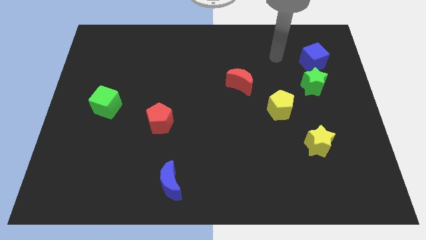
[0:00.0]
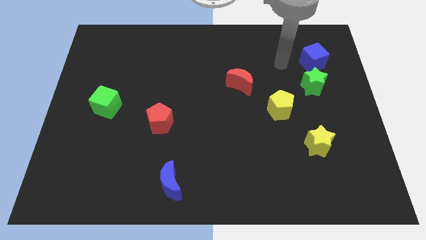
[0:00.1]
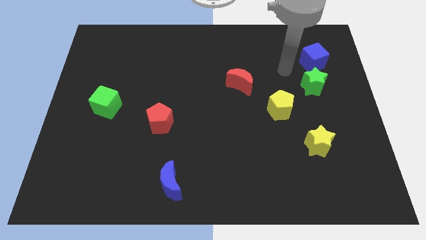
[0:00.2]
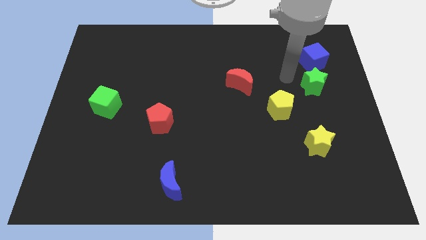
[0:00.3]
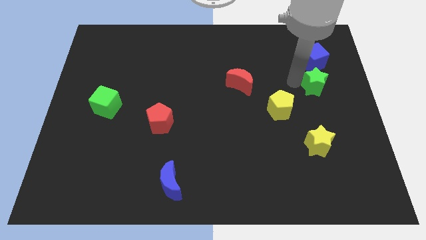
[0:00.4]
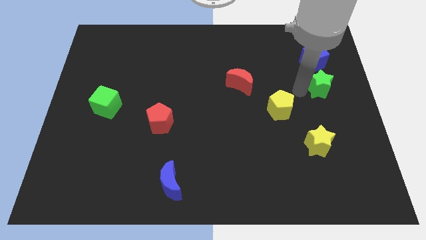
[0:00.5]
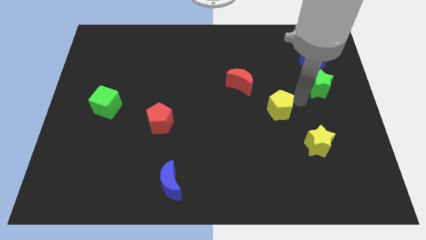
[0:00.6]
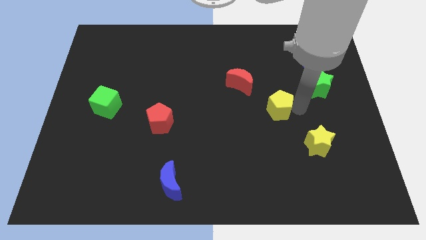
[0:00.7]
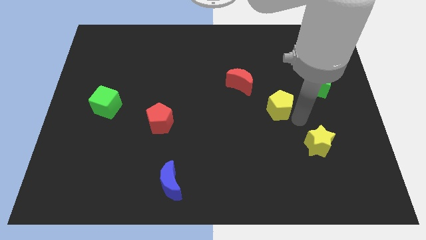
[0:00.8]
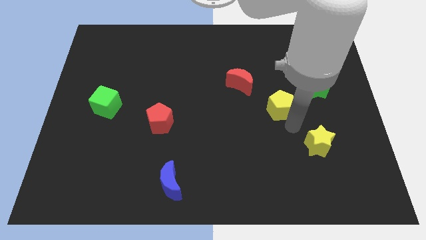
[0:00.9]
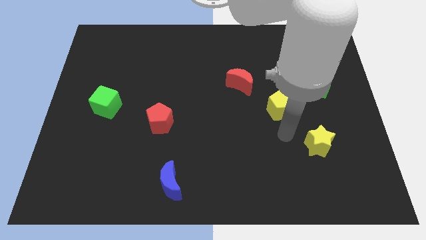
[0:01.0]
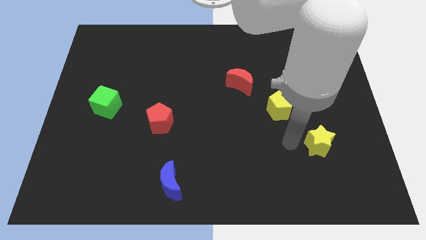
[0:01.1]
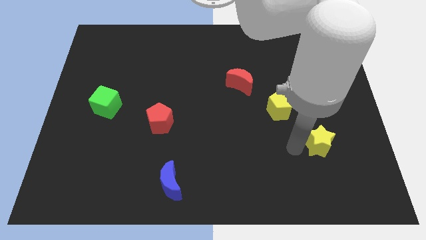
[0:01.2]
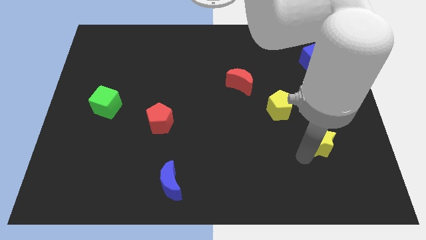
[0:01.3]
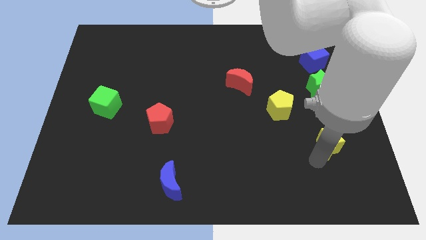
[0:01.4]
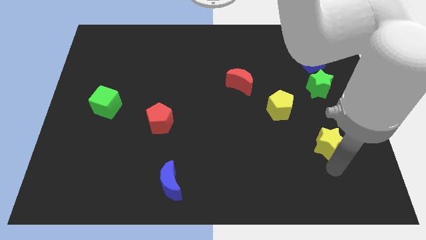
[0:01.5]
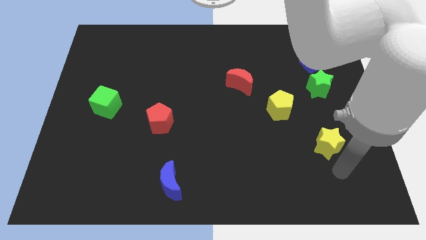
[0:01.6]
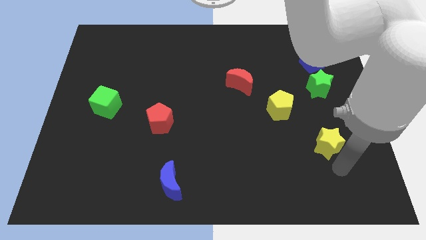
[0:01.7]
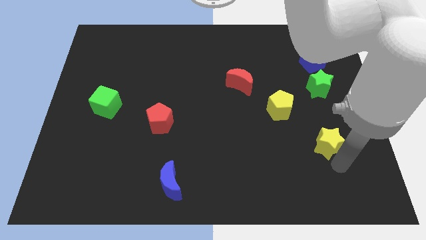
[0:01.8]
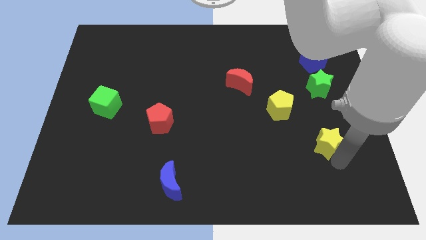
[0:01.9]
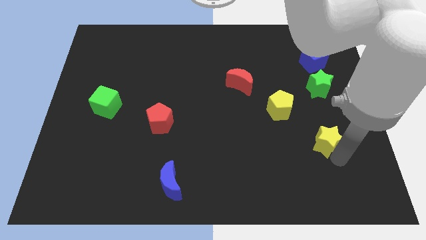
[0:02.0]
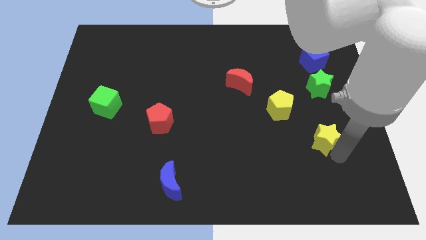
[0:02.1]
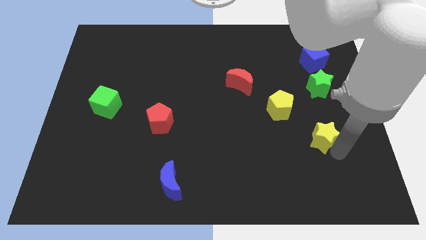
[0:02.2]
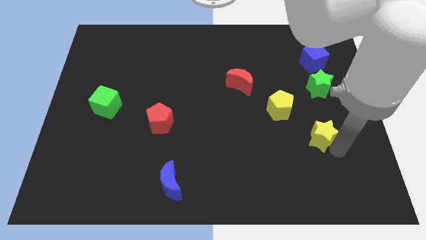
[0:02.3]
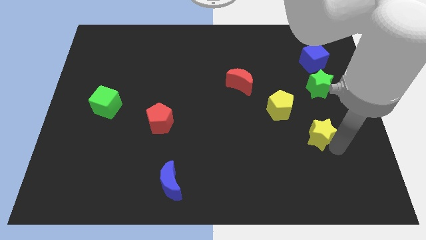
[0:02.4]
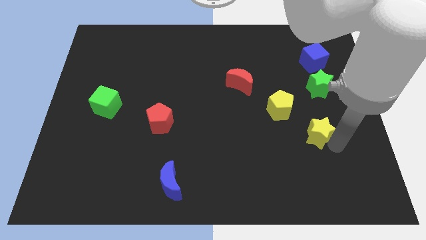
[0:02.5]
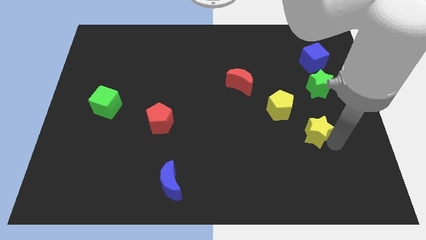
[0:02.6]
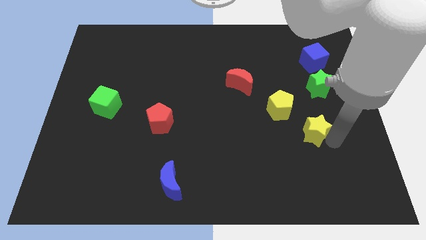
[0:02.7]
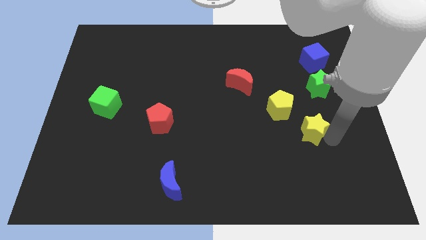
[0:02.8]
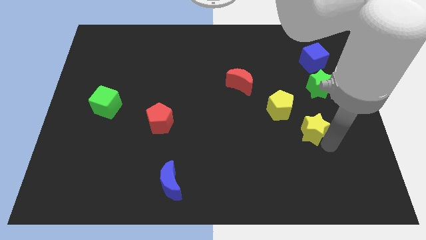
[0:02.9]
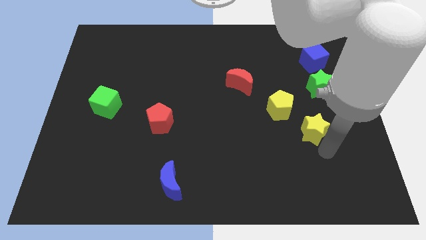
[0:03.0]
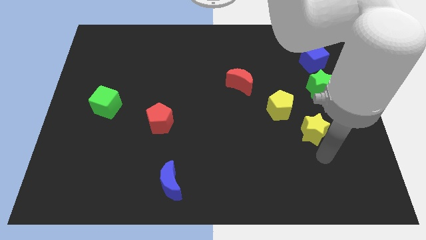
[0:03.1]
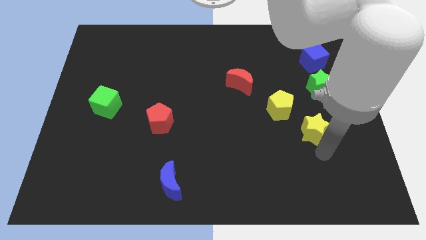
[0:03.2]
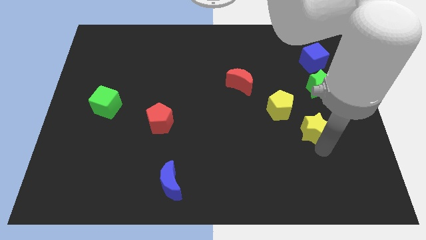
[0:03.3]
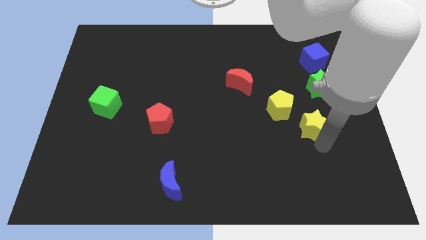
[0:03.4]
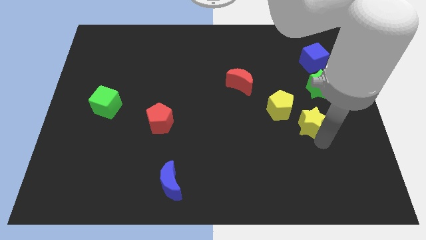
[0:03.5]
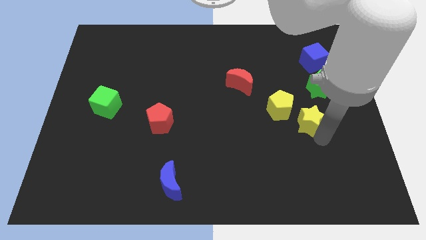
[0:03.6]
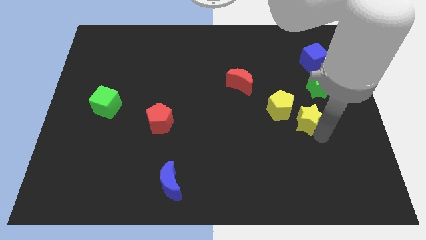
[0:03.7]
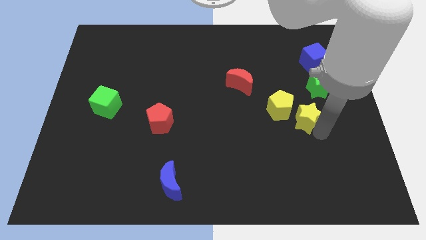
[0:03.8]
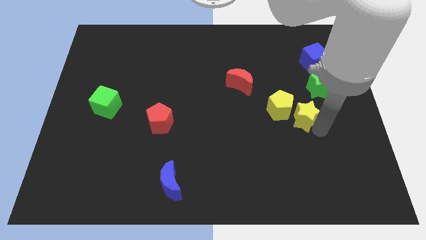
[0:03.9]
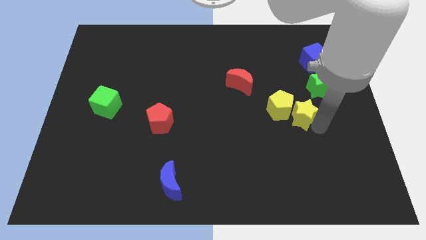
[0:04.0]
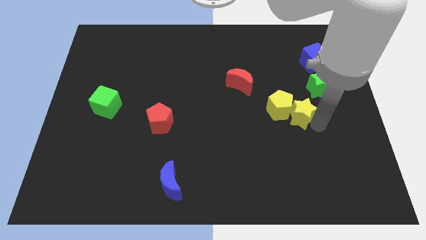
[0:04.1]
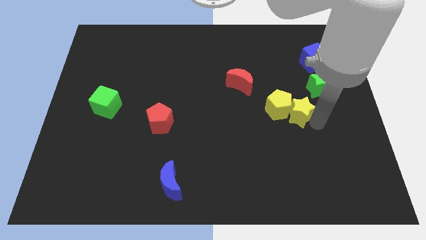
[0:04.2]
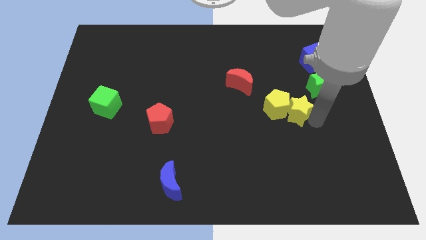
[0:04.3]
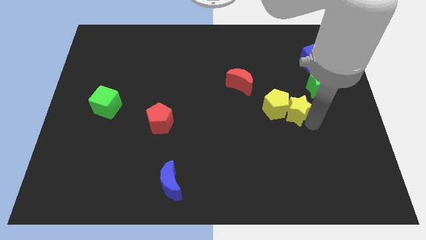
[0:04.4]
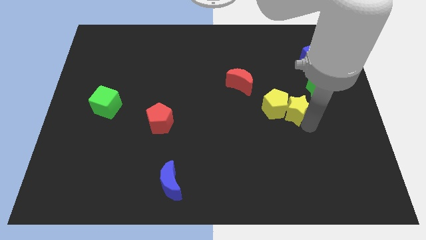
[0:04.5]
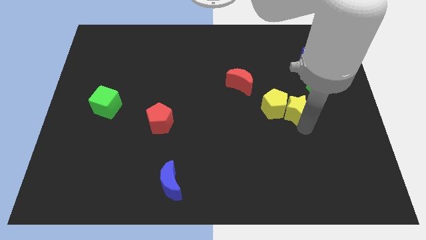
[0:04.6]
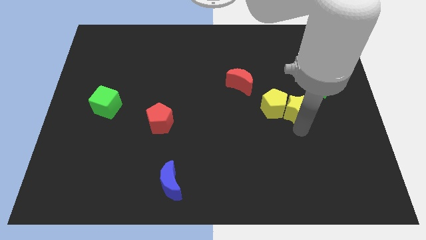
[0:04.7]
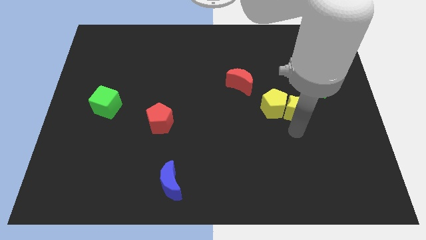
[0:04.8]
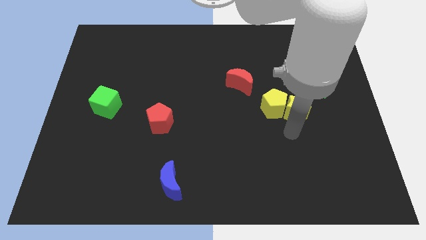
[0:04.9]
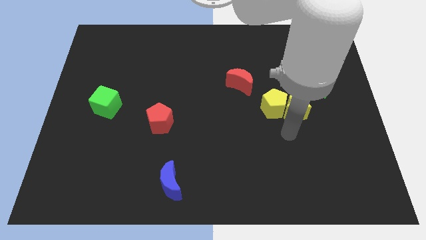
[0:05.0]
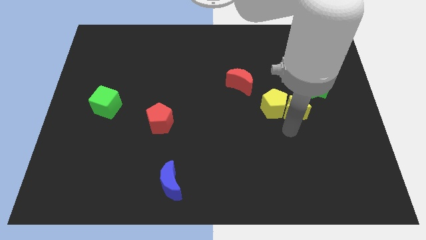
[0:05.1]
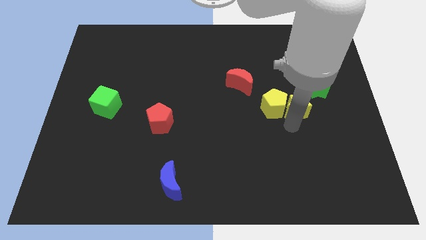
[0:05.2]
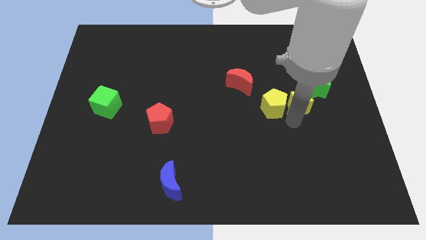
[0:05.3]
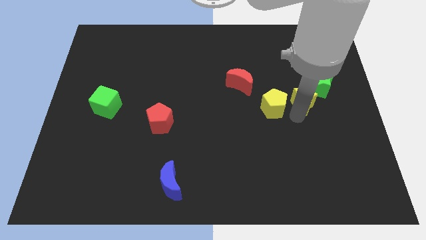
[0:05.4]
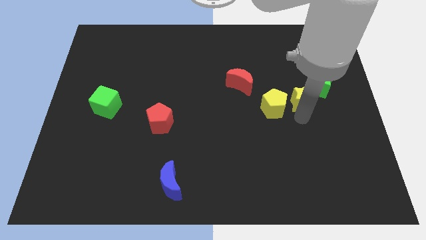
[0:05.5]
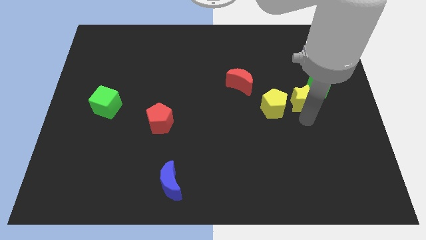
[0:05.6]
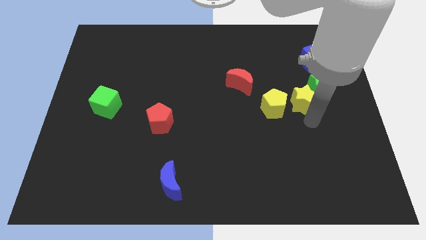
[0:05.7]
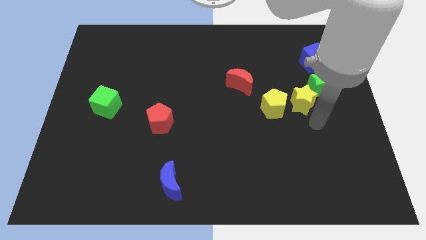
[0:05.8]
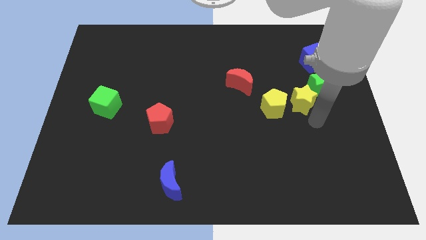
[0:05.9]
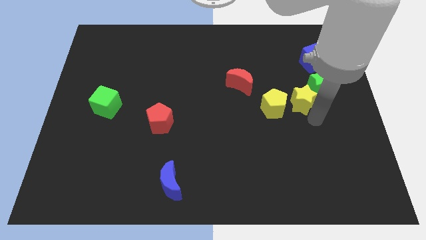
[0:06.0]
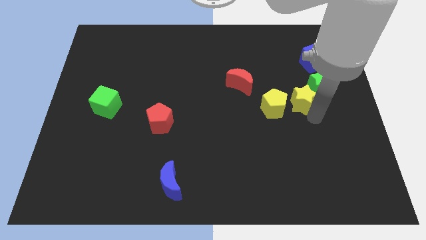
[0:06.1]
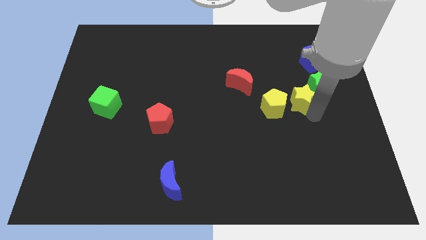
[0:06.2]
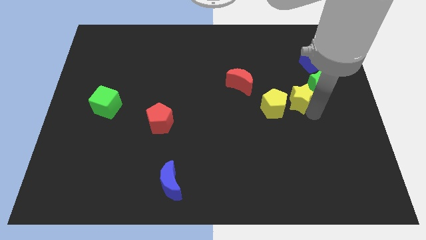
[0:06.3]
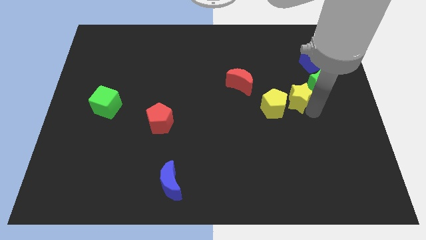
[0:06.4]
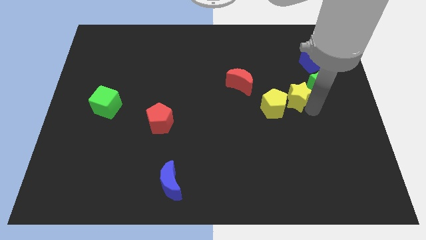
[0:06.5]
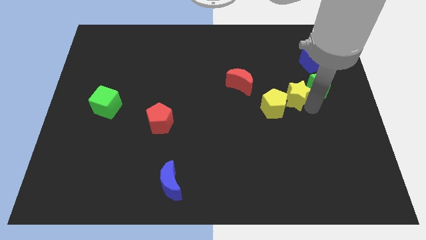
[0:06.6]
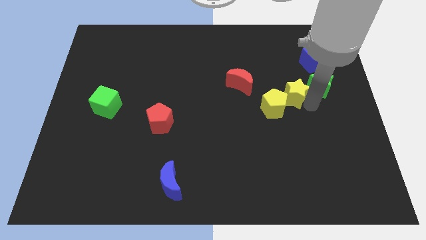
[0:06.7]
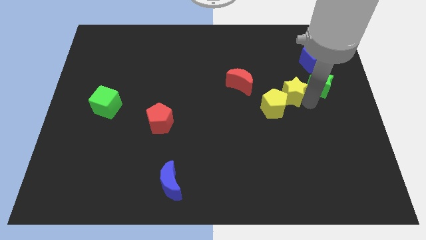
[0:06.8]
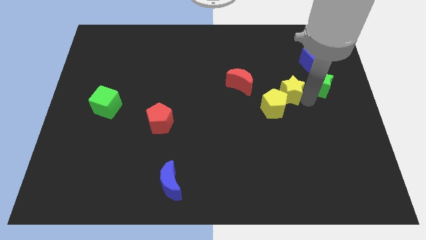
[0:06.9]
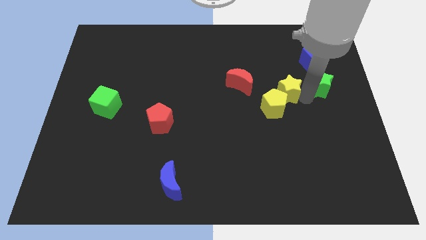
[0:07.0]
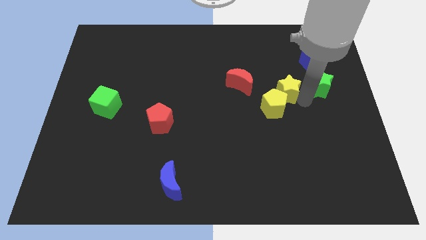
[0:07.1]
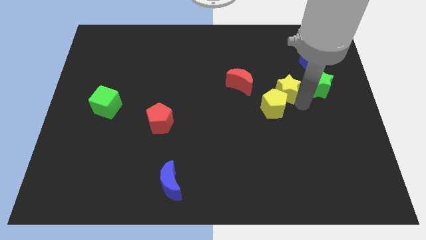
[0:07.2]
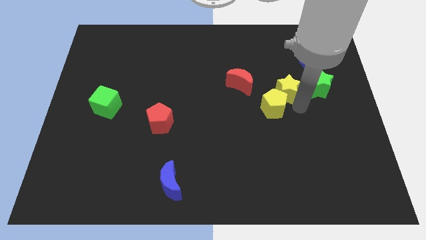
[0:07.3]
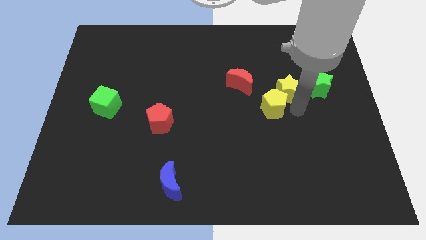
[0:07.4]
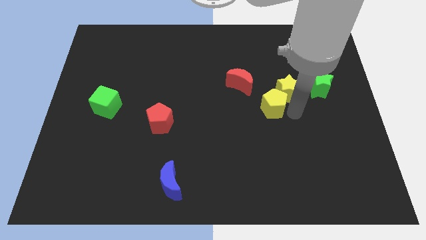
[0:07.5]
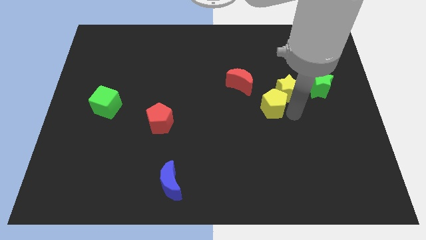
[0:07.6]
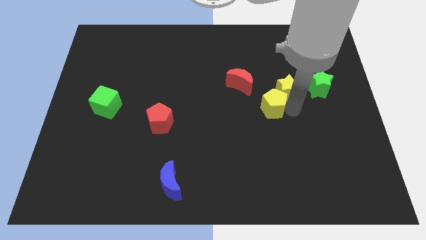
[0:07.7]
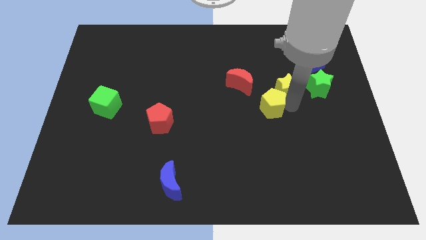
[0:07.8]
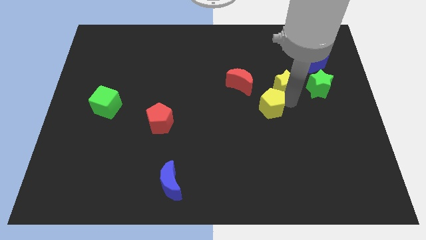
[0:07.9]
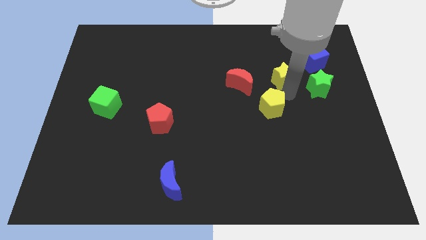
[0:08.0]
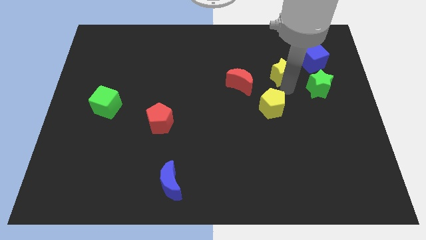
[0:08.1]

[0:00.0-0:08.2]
put the yellow star to the left side of the blue cube
